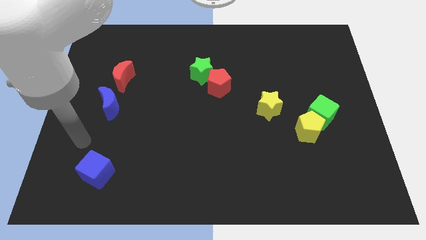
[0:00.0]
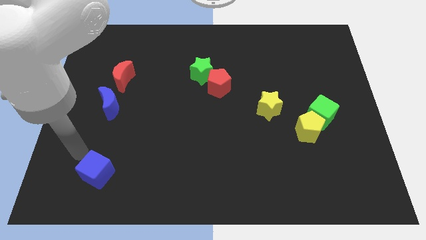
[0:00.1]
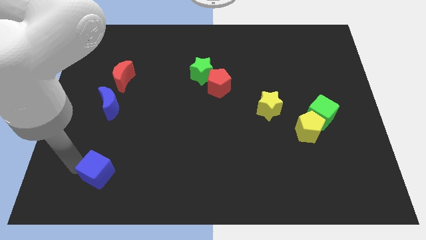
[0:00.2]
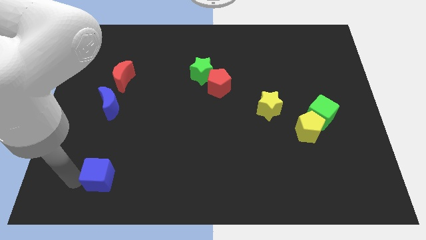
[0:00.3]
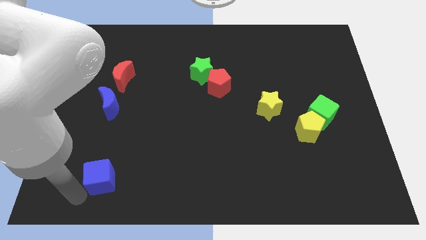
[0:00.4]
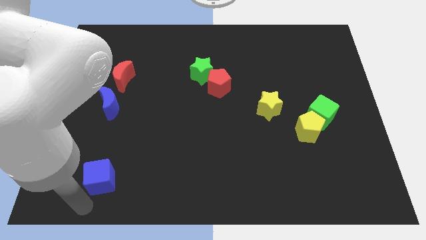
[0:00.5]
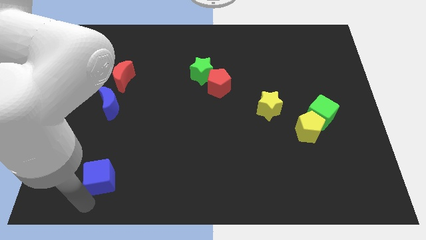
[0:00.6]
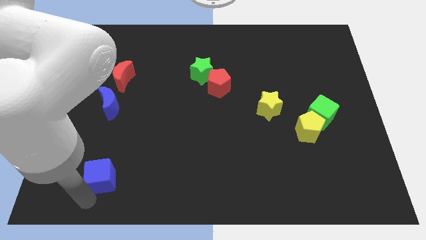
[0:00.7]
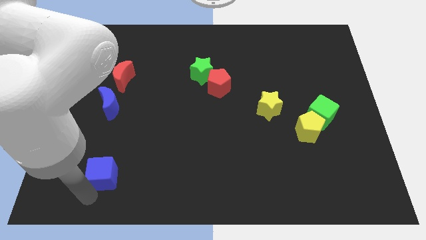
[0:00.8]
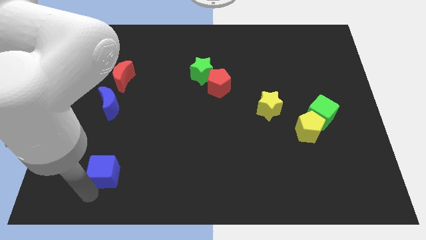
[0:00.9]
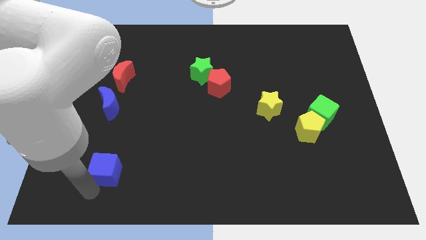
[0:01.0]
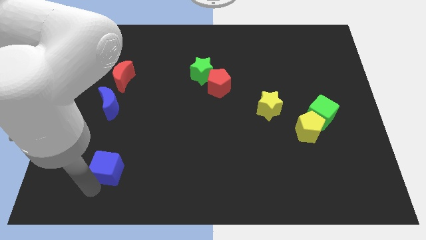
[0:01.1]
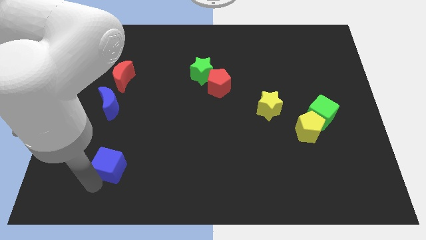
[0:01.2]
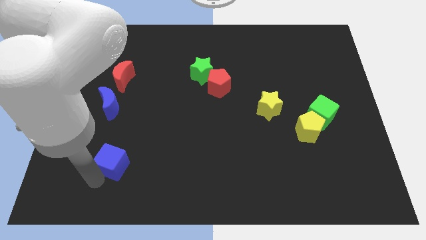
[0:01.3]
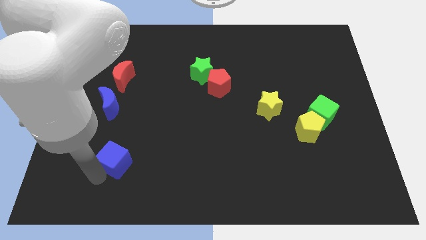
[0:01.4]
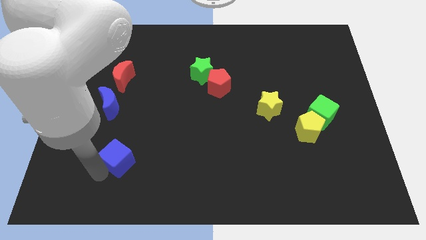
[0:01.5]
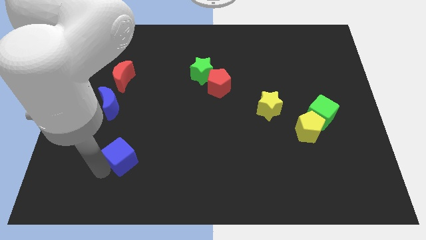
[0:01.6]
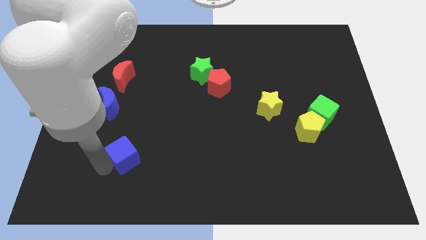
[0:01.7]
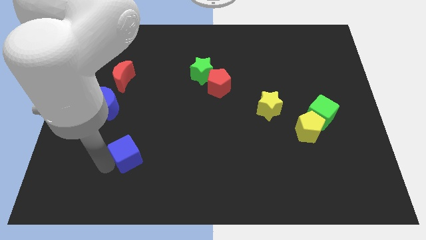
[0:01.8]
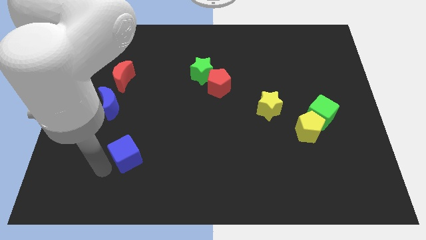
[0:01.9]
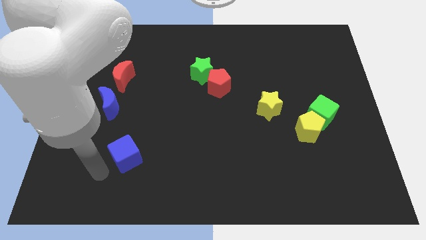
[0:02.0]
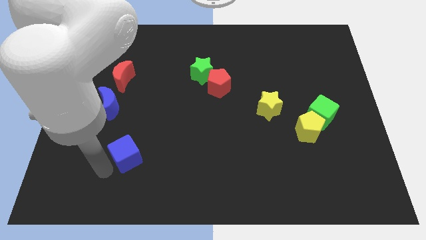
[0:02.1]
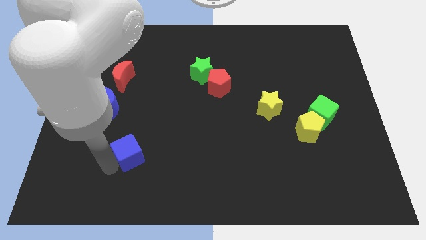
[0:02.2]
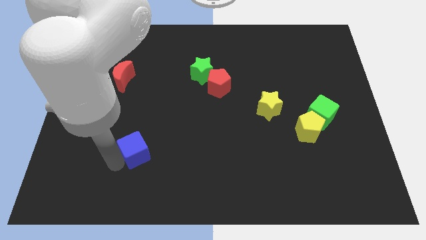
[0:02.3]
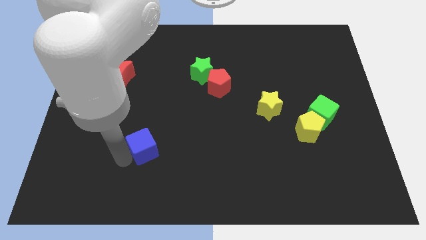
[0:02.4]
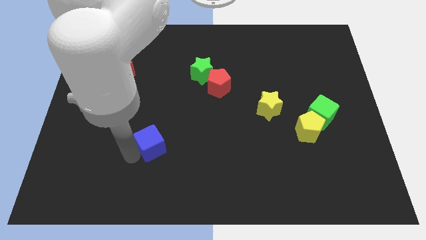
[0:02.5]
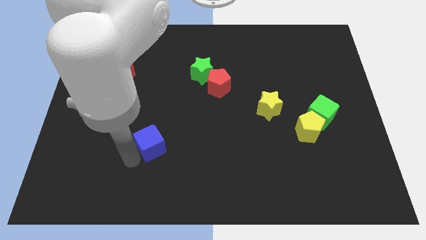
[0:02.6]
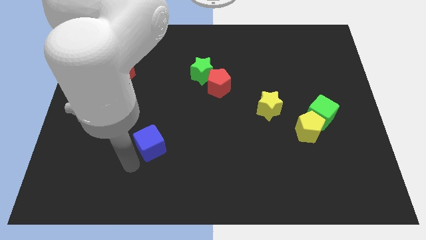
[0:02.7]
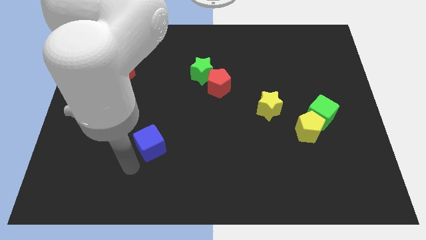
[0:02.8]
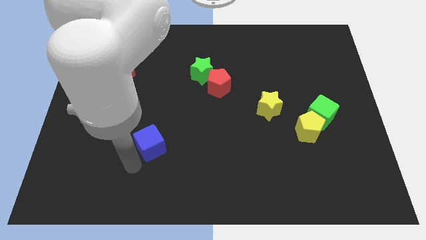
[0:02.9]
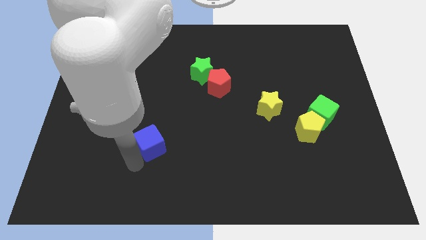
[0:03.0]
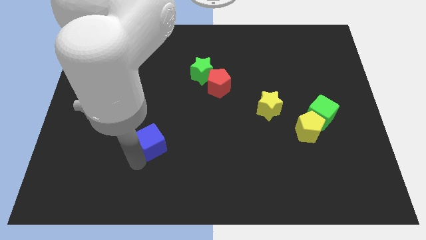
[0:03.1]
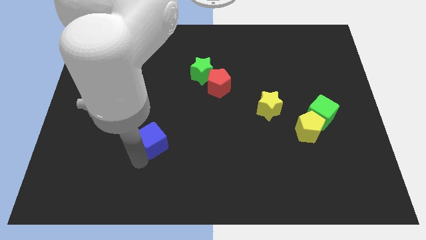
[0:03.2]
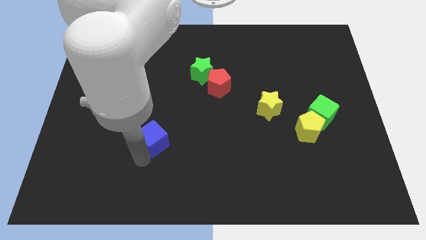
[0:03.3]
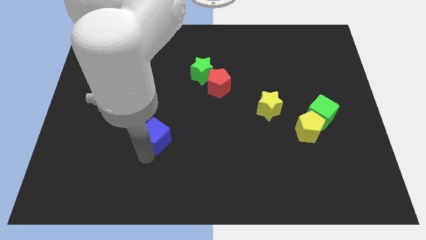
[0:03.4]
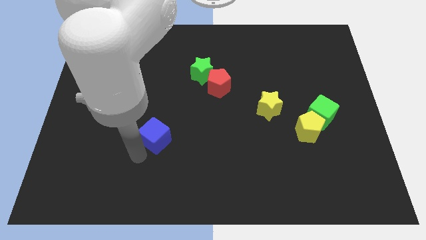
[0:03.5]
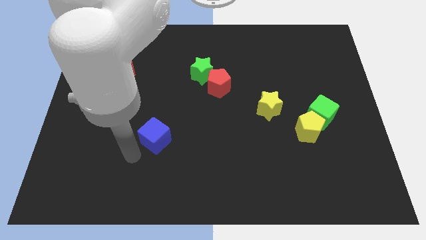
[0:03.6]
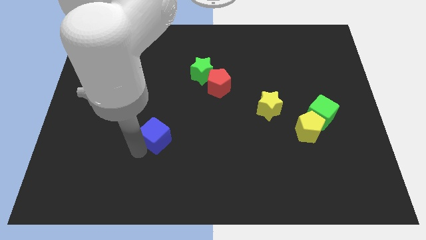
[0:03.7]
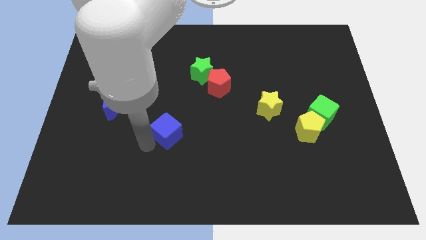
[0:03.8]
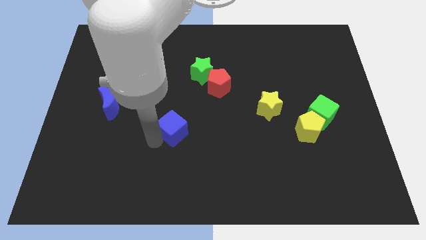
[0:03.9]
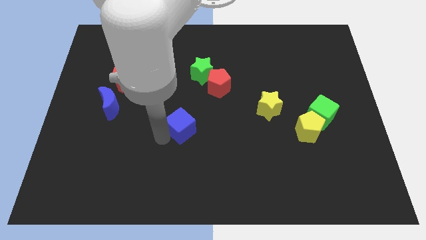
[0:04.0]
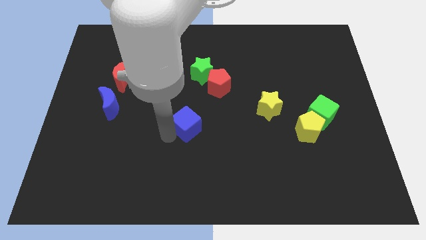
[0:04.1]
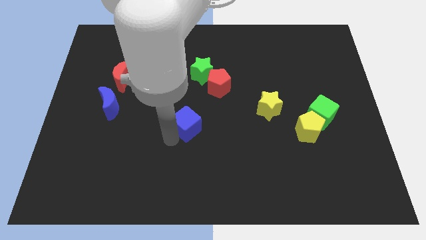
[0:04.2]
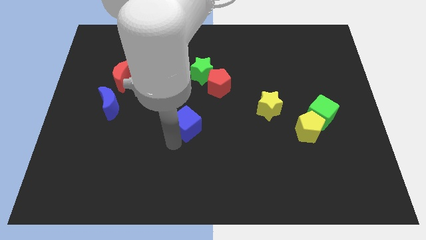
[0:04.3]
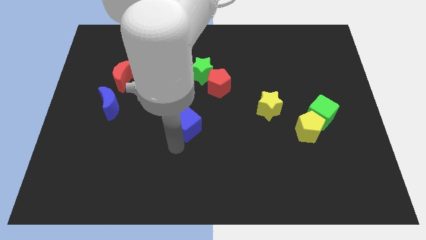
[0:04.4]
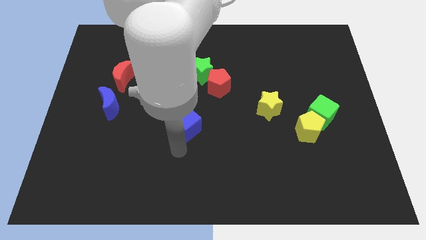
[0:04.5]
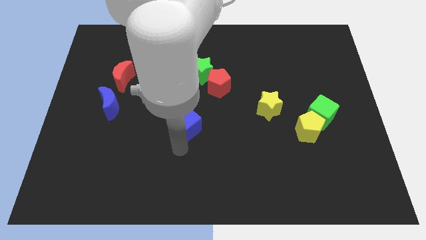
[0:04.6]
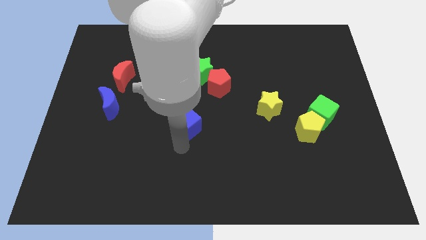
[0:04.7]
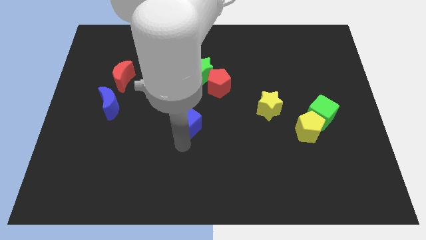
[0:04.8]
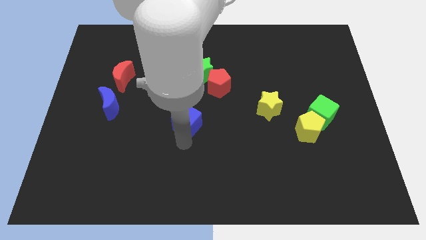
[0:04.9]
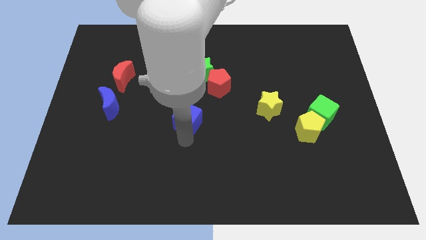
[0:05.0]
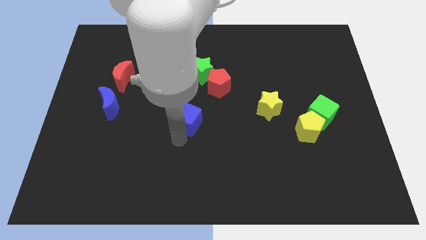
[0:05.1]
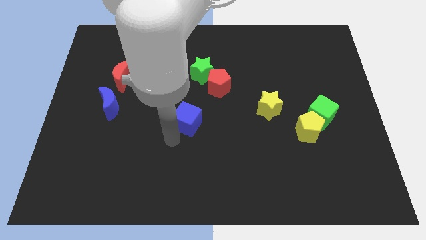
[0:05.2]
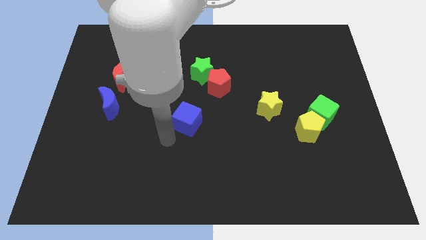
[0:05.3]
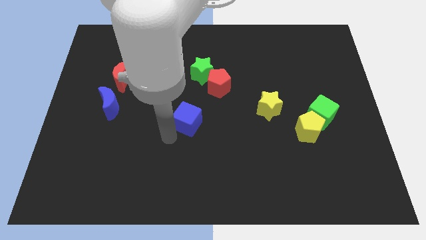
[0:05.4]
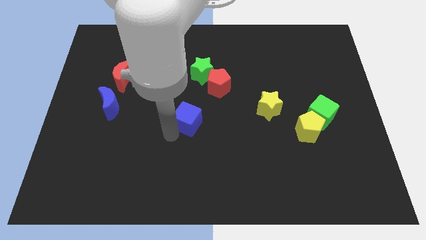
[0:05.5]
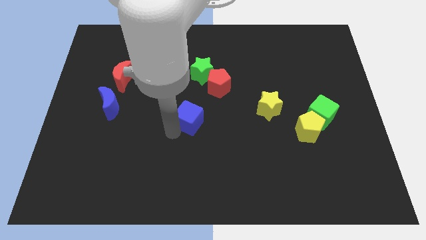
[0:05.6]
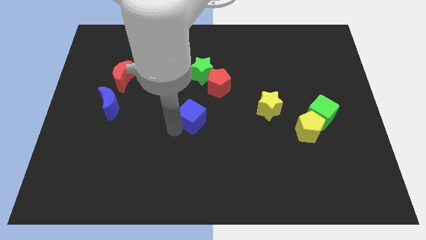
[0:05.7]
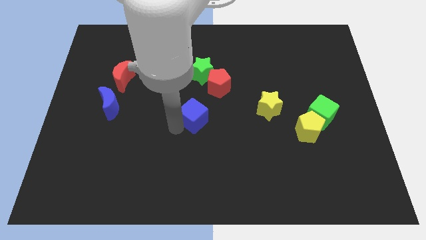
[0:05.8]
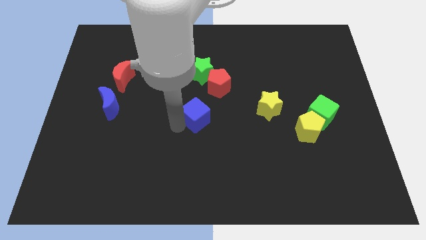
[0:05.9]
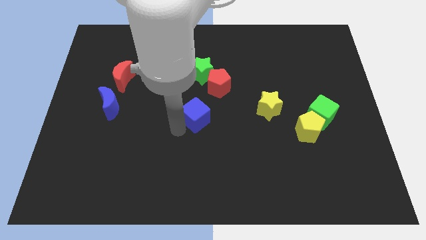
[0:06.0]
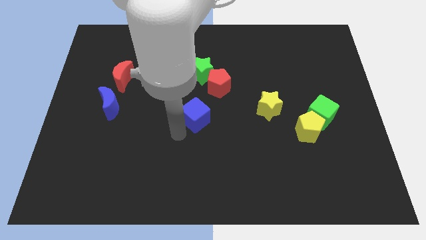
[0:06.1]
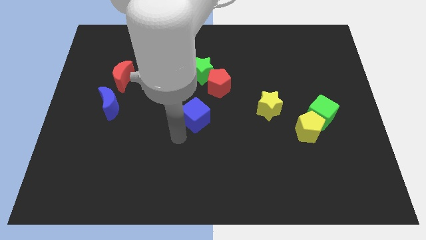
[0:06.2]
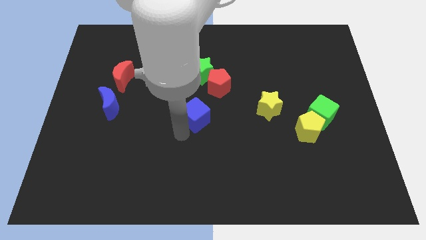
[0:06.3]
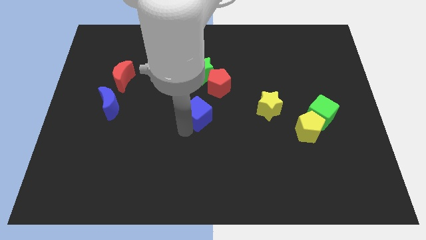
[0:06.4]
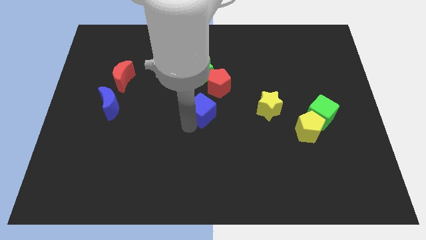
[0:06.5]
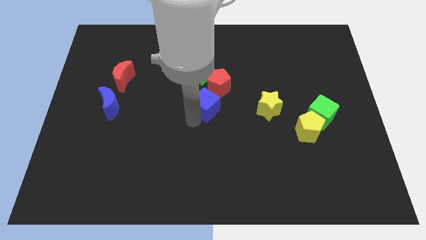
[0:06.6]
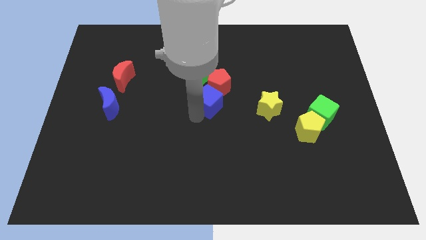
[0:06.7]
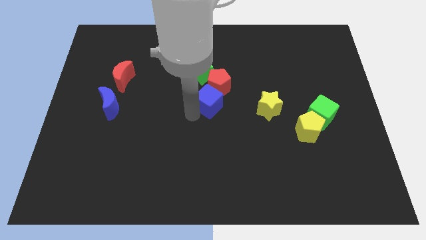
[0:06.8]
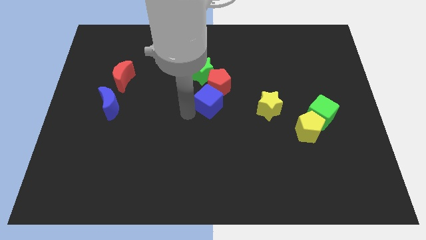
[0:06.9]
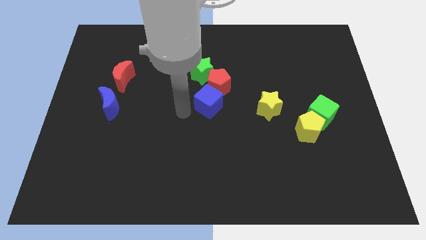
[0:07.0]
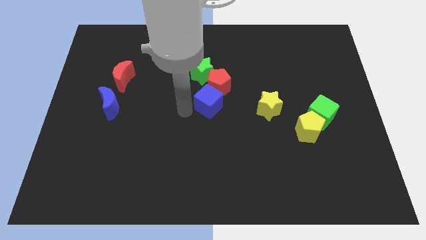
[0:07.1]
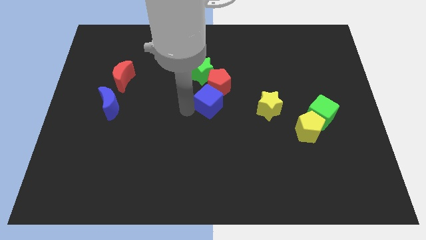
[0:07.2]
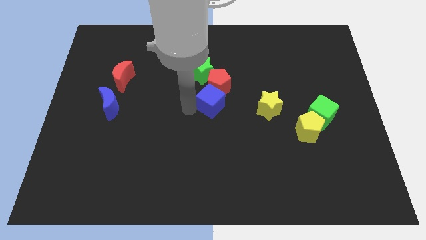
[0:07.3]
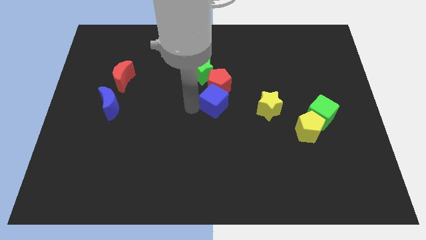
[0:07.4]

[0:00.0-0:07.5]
move the blue cube to the bottom right side of the green star
